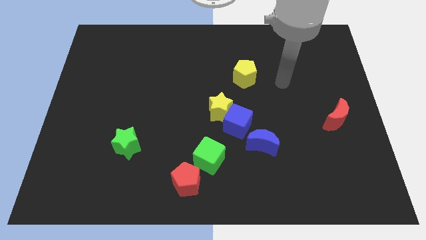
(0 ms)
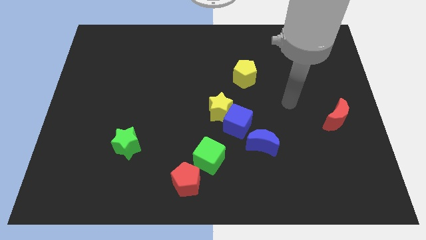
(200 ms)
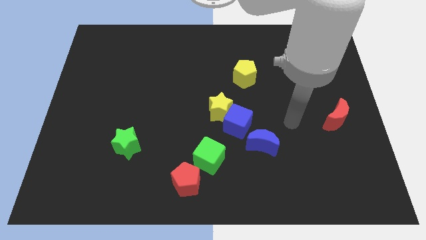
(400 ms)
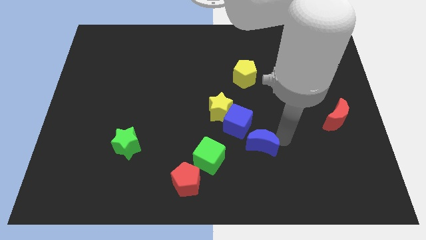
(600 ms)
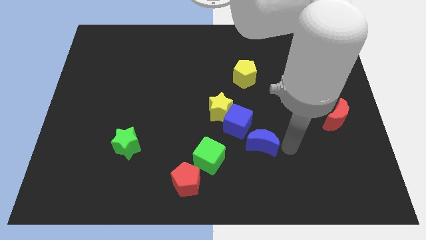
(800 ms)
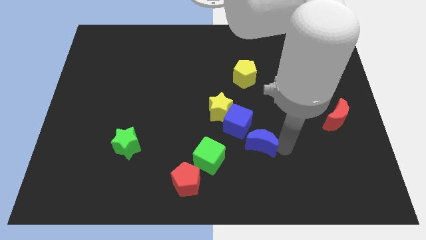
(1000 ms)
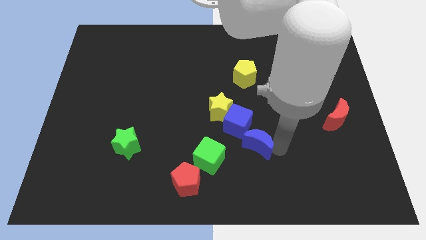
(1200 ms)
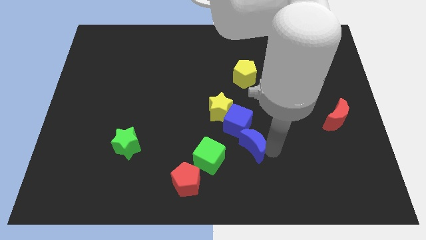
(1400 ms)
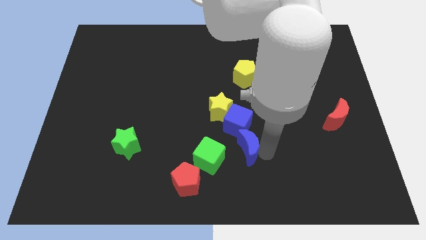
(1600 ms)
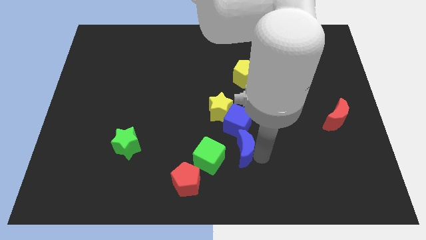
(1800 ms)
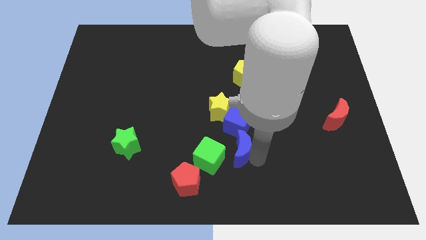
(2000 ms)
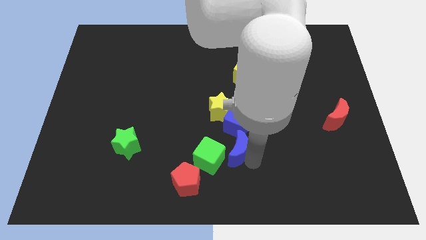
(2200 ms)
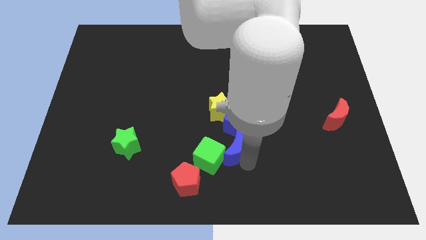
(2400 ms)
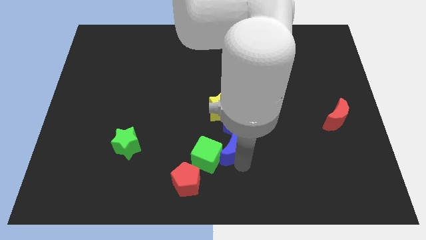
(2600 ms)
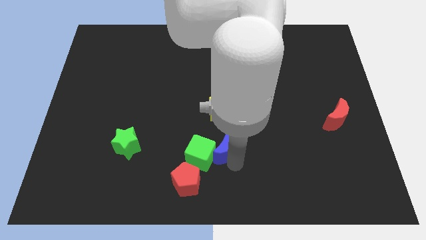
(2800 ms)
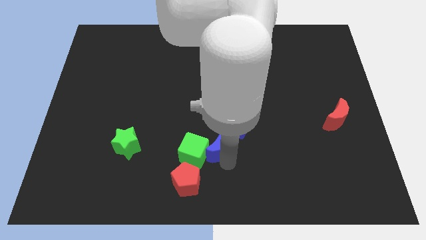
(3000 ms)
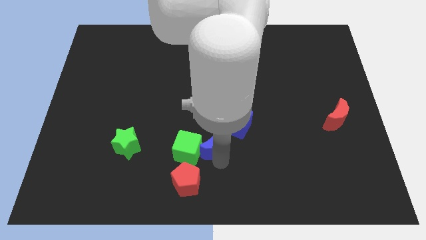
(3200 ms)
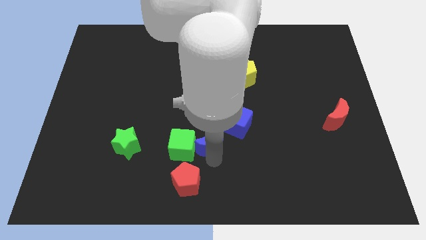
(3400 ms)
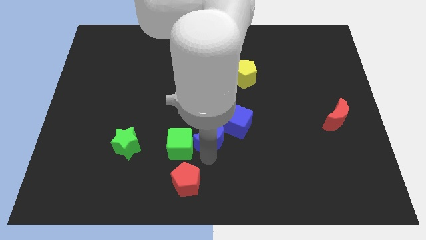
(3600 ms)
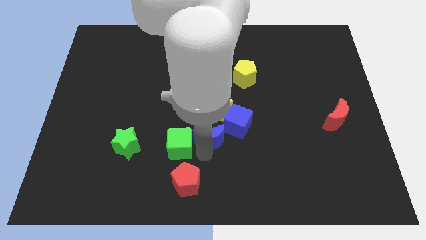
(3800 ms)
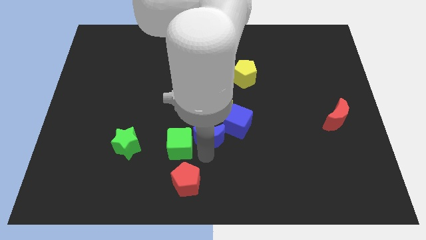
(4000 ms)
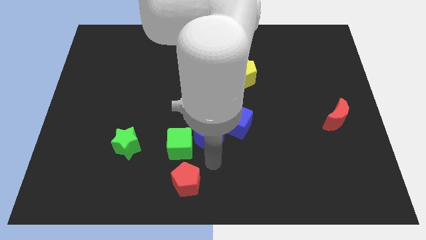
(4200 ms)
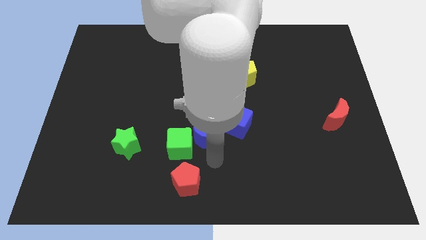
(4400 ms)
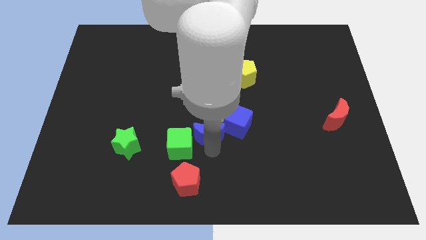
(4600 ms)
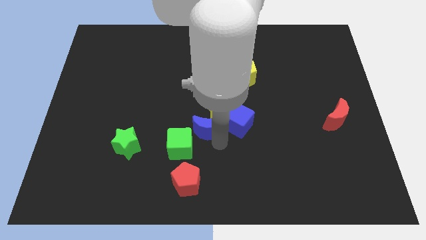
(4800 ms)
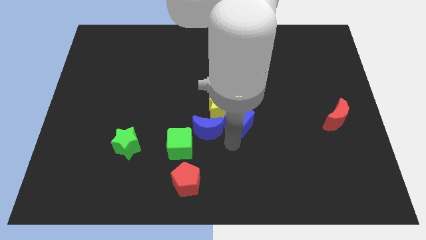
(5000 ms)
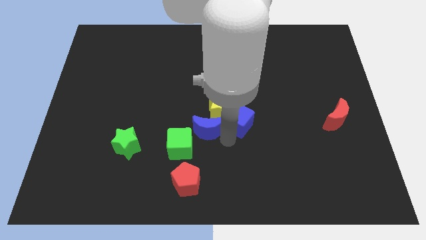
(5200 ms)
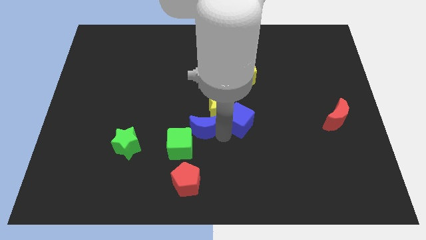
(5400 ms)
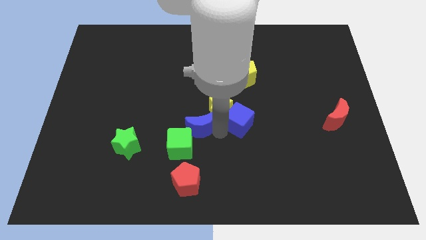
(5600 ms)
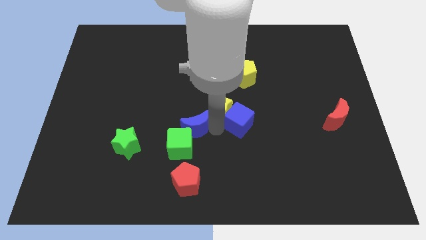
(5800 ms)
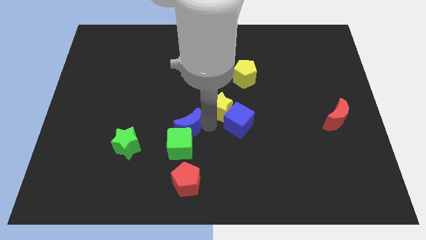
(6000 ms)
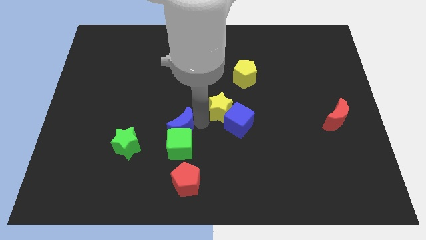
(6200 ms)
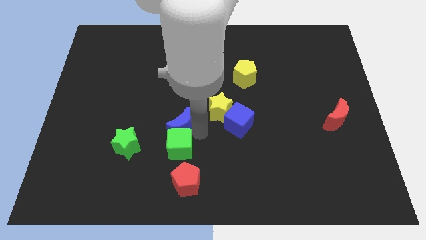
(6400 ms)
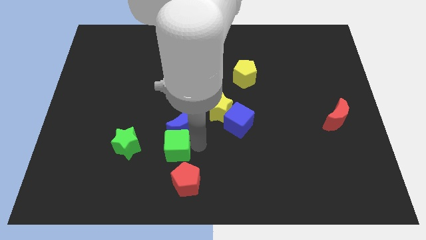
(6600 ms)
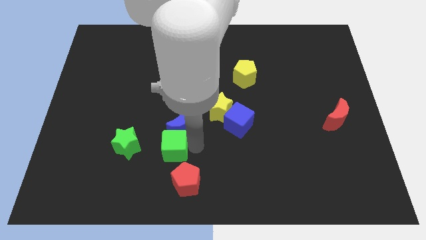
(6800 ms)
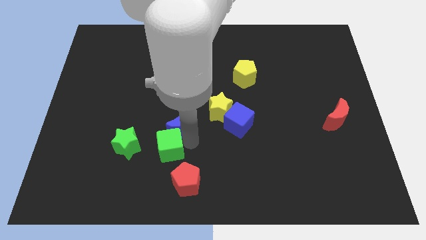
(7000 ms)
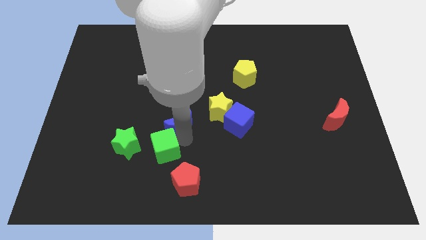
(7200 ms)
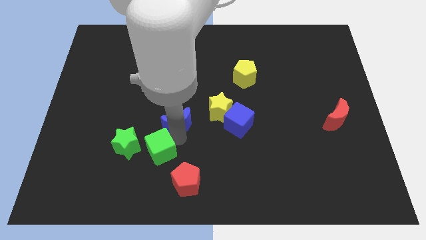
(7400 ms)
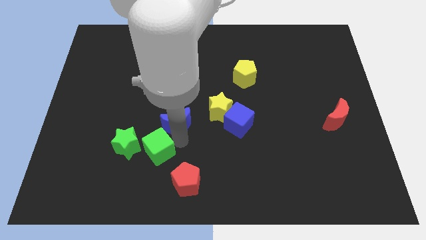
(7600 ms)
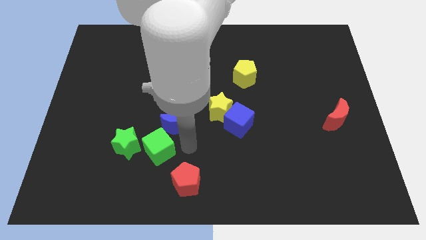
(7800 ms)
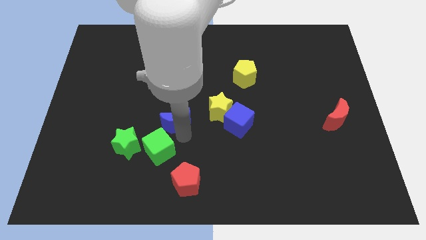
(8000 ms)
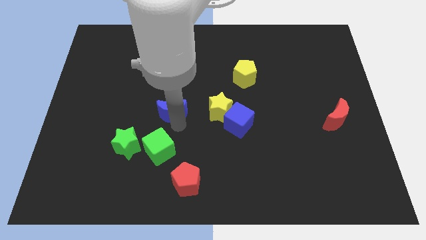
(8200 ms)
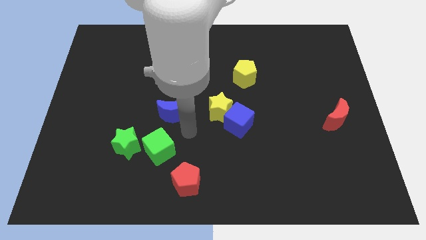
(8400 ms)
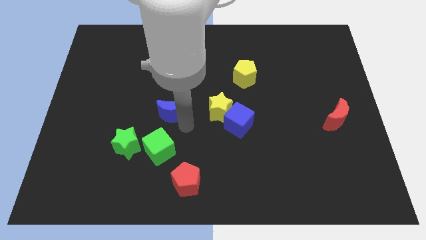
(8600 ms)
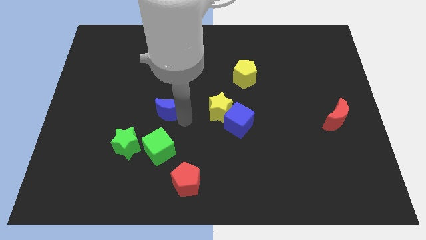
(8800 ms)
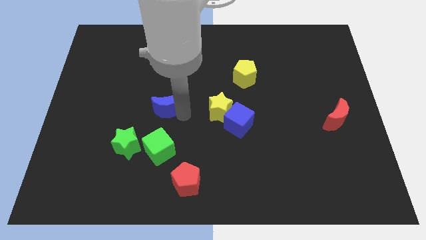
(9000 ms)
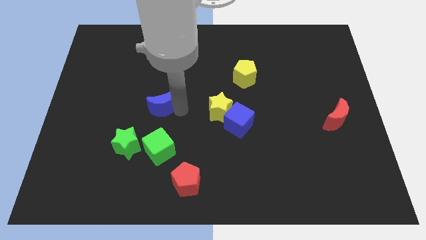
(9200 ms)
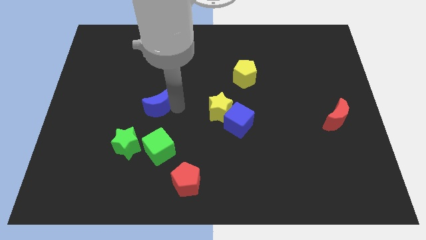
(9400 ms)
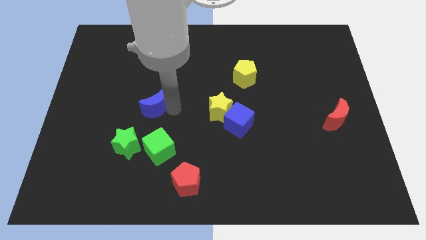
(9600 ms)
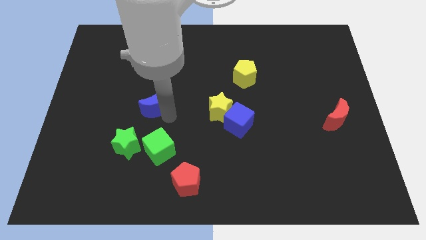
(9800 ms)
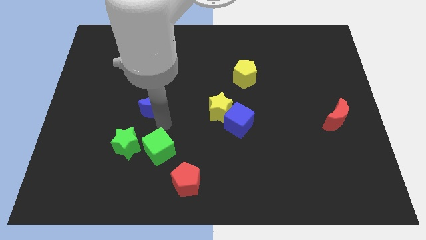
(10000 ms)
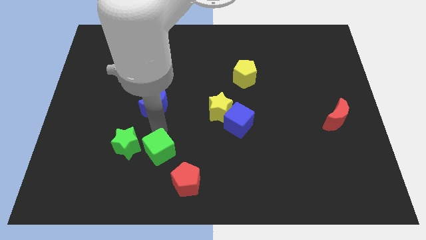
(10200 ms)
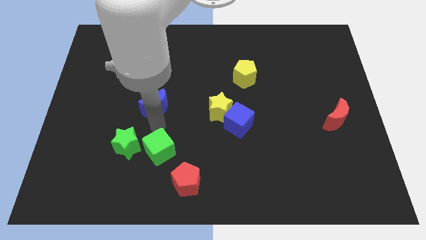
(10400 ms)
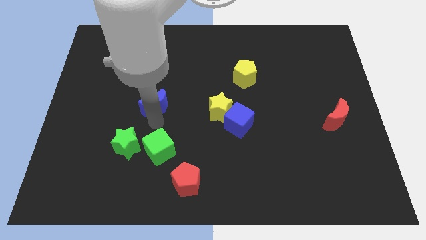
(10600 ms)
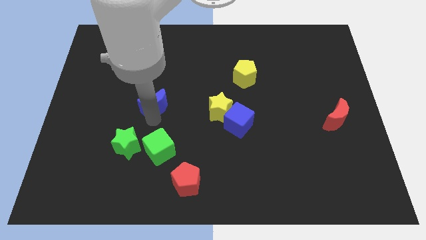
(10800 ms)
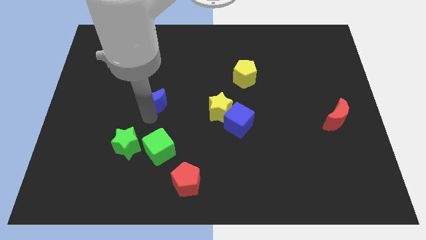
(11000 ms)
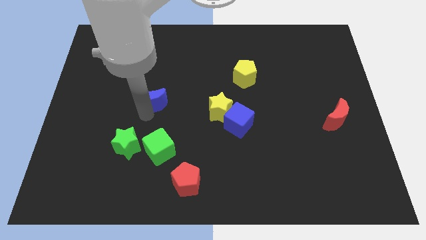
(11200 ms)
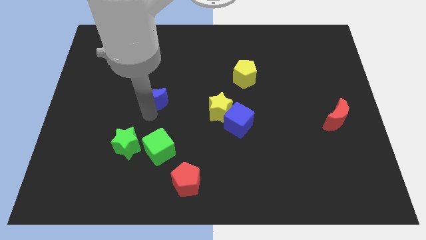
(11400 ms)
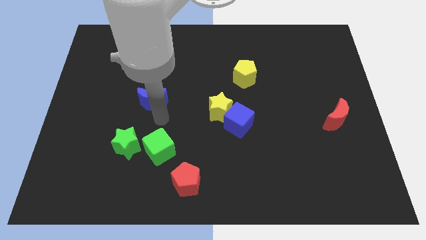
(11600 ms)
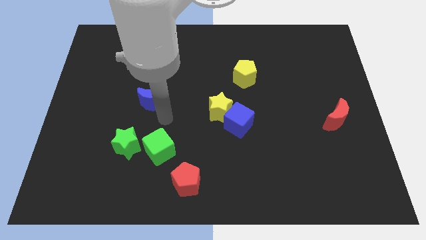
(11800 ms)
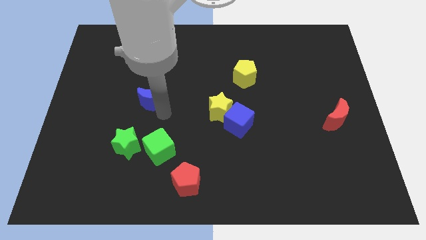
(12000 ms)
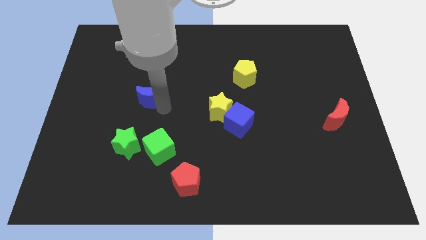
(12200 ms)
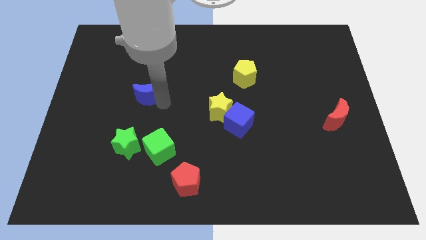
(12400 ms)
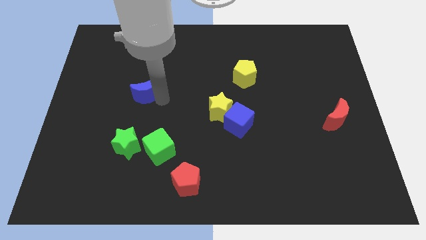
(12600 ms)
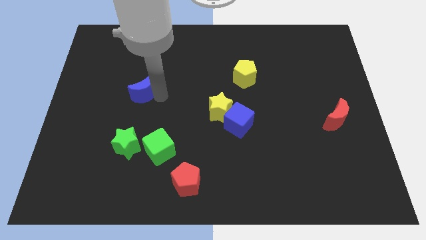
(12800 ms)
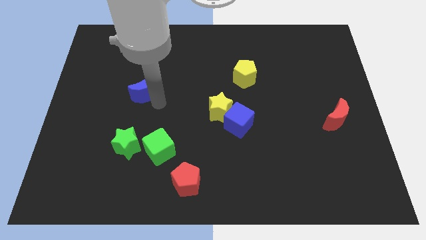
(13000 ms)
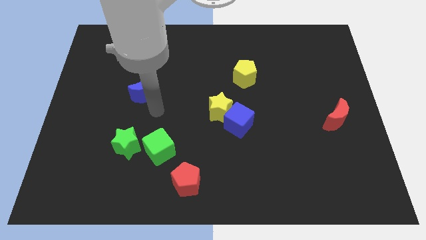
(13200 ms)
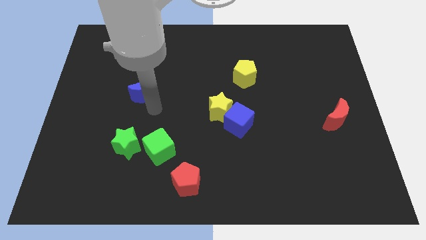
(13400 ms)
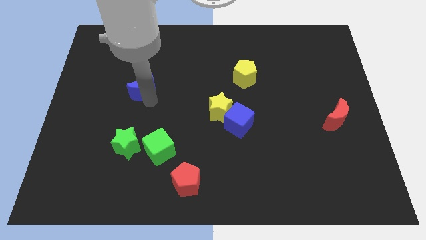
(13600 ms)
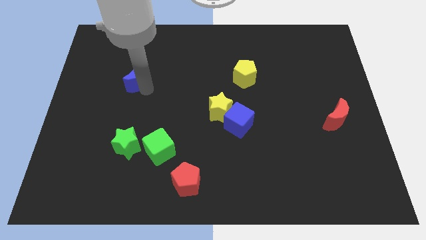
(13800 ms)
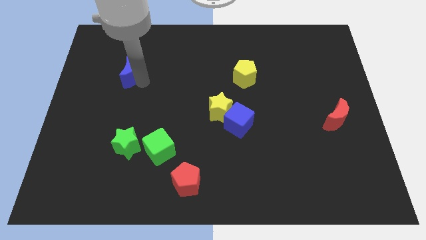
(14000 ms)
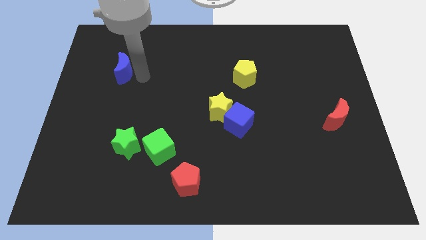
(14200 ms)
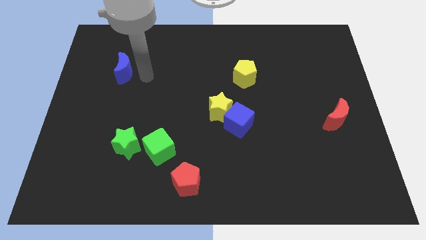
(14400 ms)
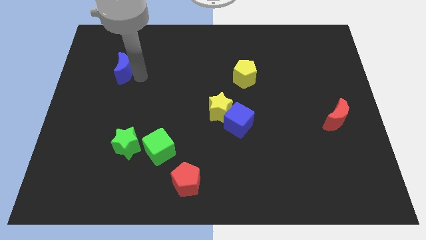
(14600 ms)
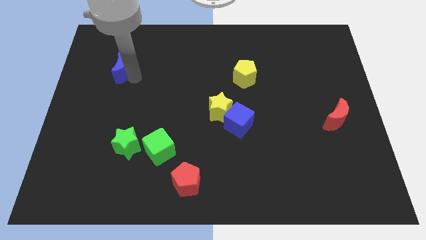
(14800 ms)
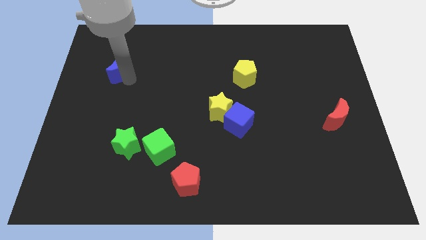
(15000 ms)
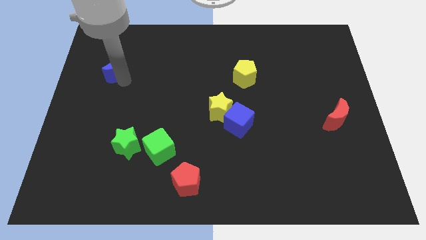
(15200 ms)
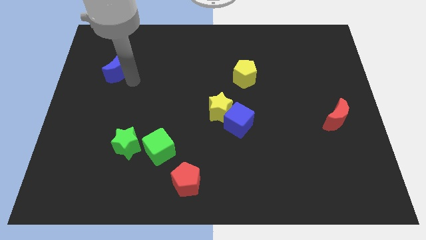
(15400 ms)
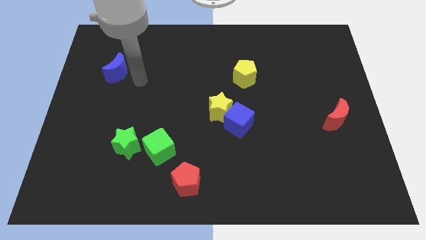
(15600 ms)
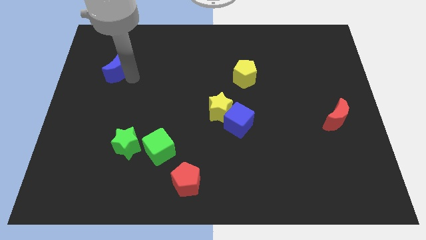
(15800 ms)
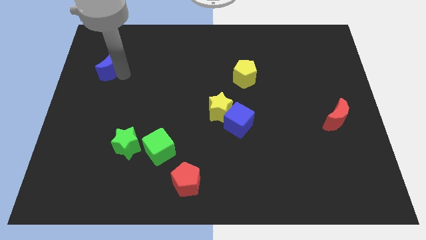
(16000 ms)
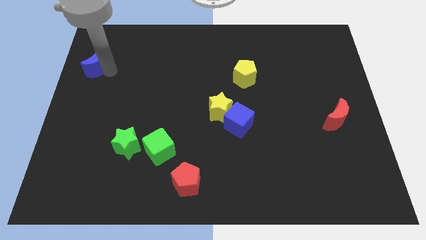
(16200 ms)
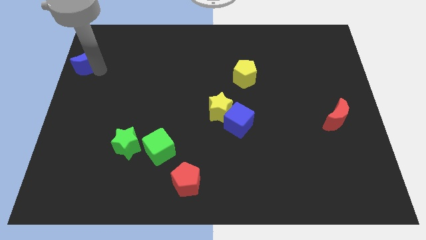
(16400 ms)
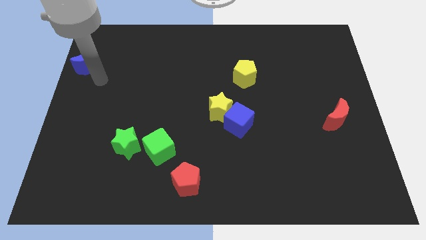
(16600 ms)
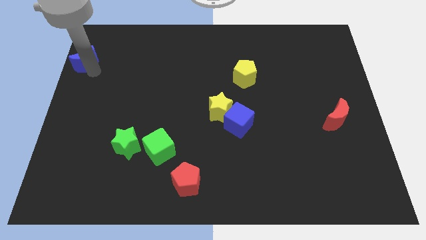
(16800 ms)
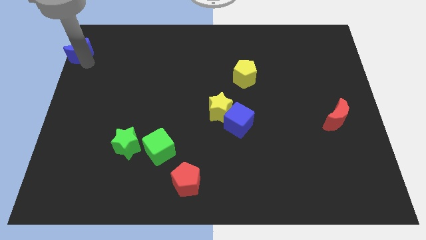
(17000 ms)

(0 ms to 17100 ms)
slide the blue moon to the top left of the board
